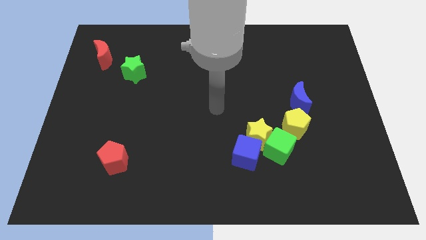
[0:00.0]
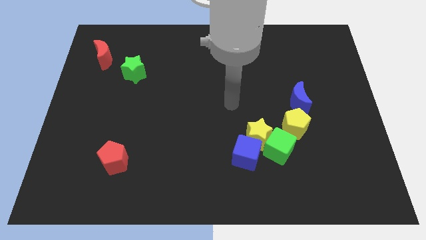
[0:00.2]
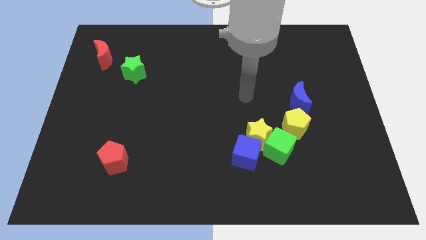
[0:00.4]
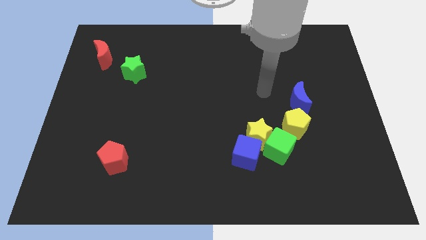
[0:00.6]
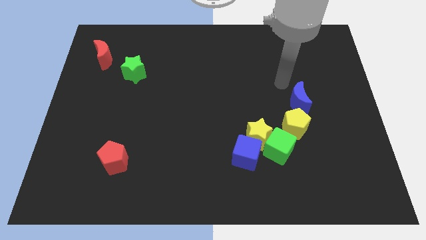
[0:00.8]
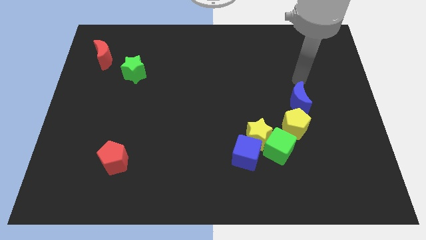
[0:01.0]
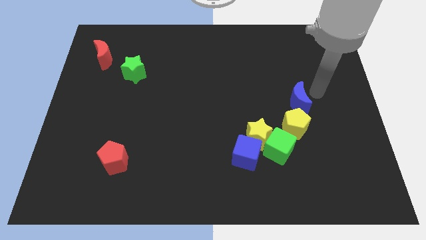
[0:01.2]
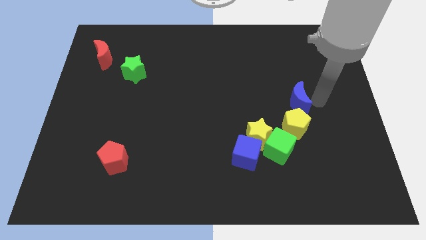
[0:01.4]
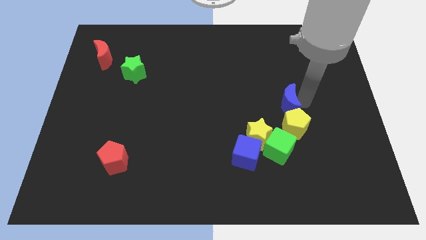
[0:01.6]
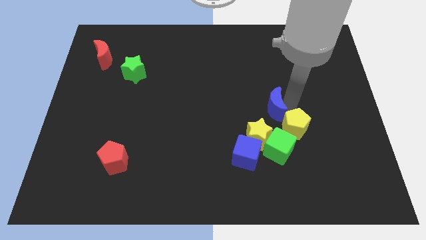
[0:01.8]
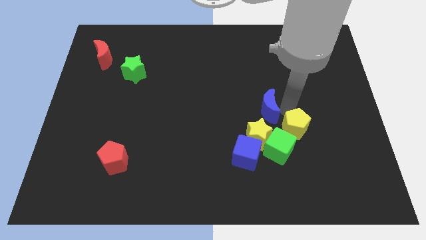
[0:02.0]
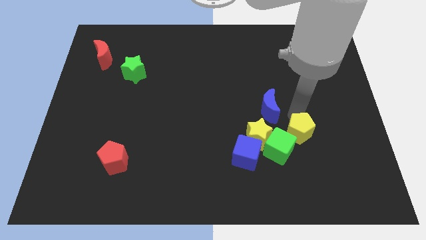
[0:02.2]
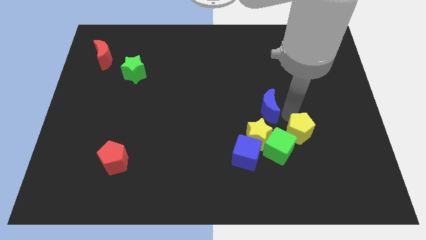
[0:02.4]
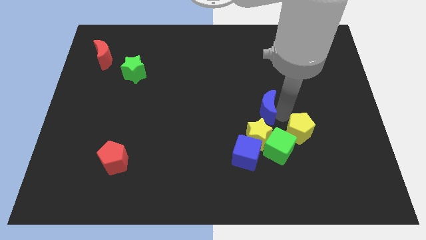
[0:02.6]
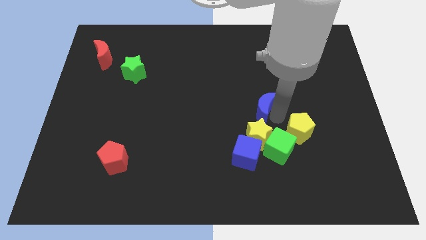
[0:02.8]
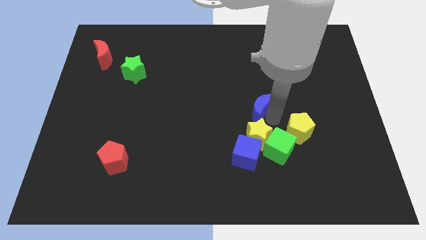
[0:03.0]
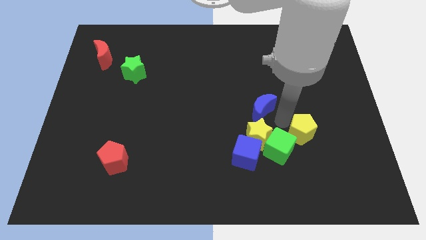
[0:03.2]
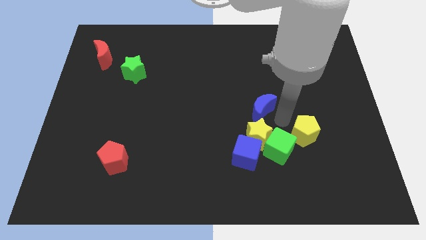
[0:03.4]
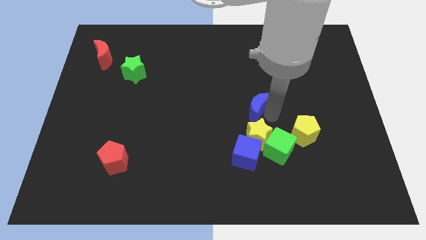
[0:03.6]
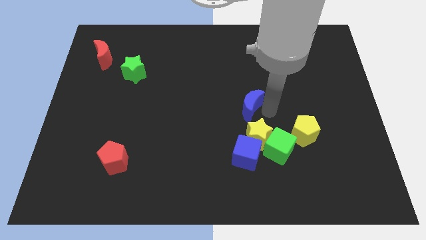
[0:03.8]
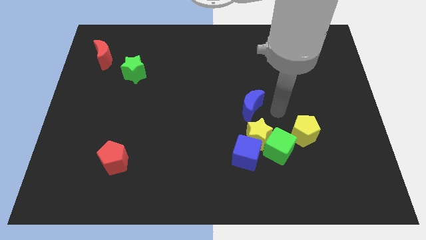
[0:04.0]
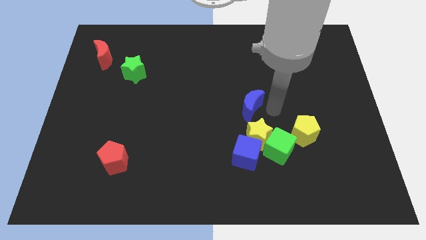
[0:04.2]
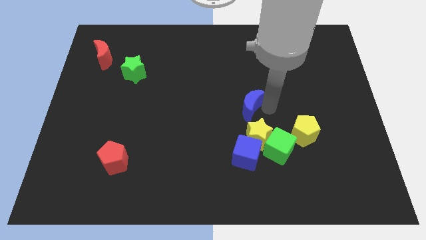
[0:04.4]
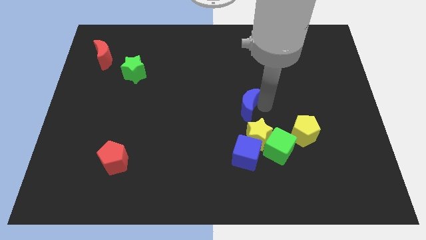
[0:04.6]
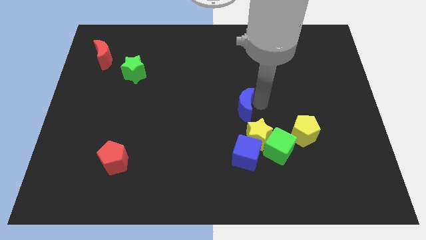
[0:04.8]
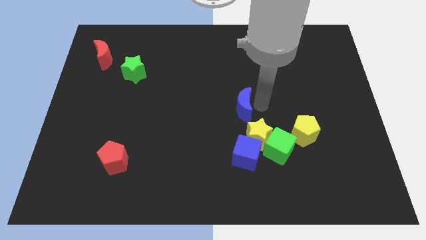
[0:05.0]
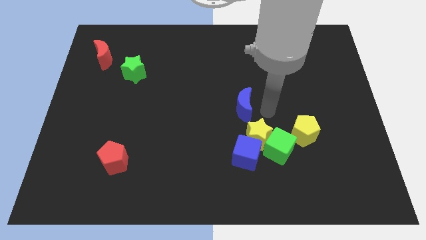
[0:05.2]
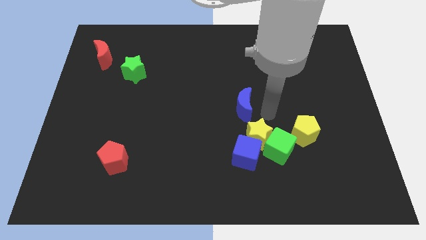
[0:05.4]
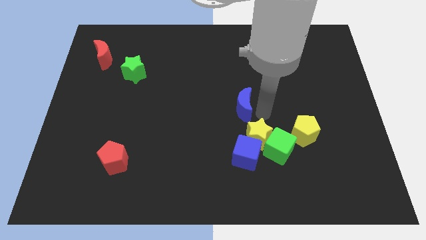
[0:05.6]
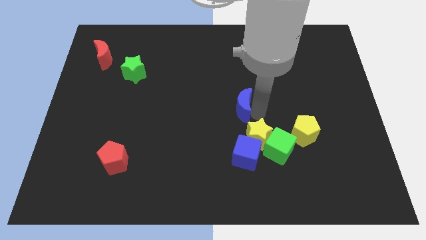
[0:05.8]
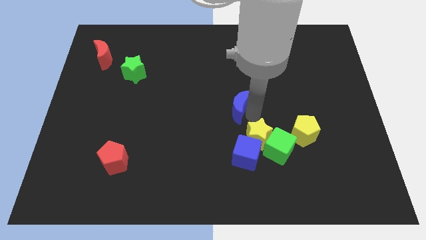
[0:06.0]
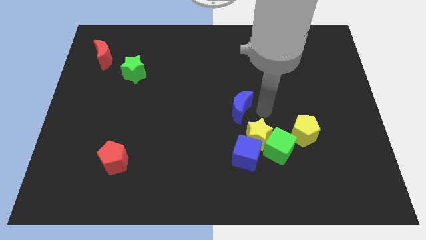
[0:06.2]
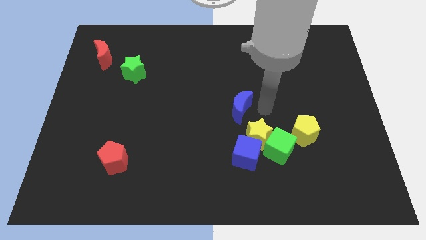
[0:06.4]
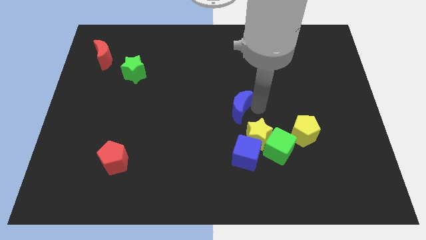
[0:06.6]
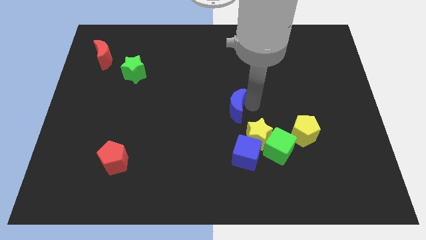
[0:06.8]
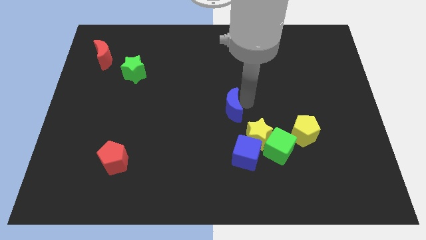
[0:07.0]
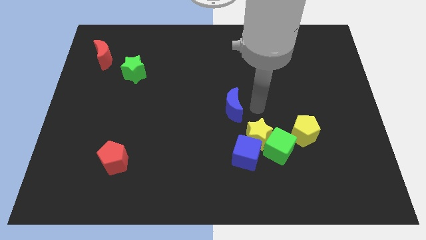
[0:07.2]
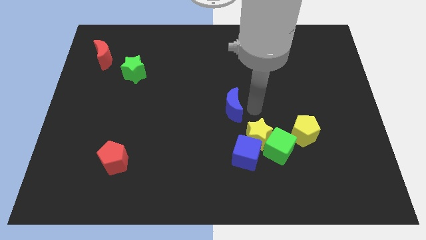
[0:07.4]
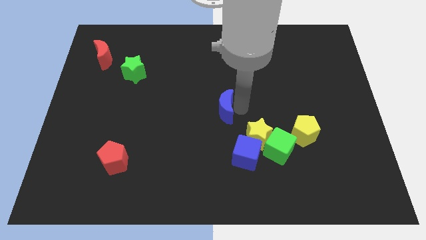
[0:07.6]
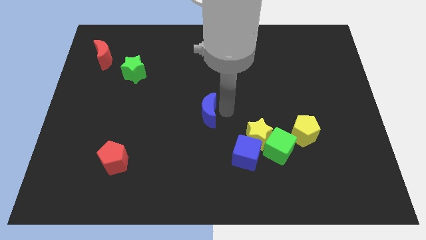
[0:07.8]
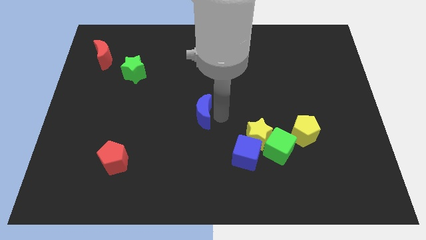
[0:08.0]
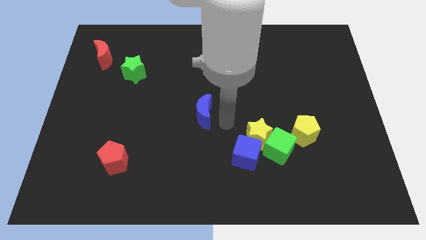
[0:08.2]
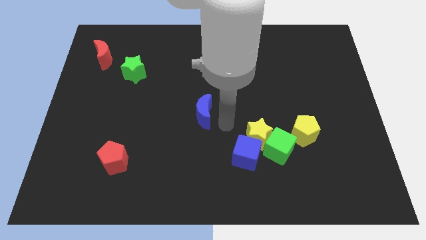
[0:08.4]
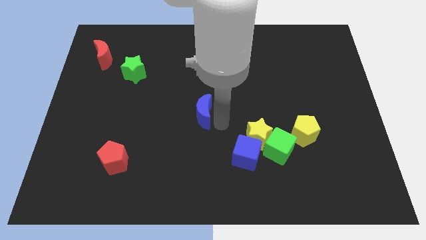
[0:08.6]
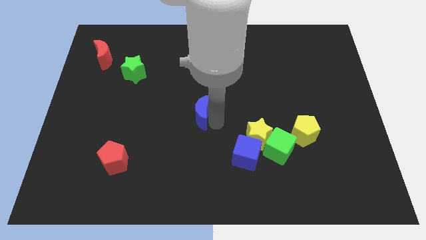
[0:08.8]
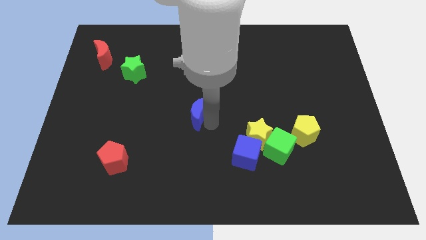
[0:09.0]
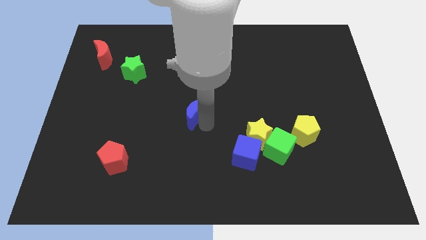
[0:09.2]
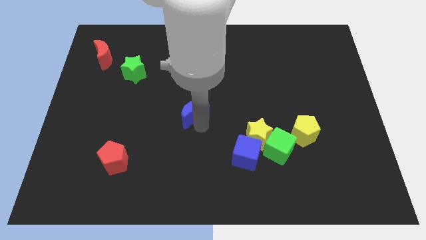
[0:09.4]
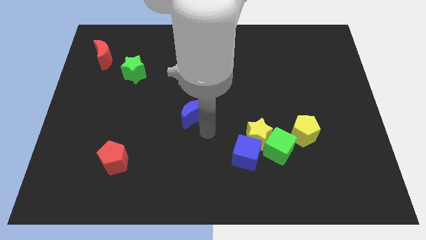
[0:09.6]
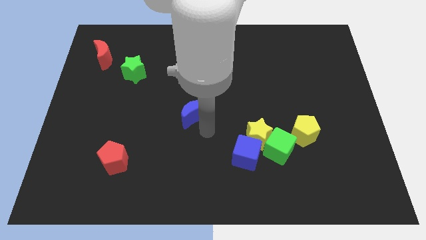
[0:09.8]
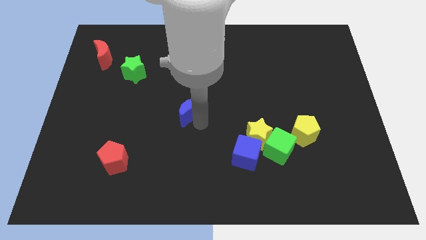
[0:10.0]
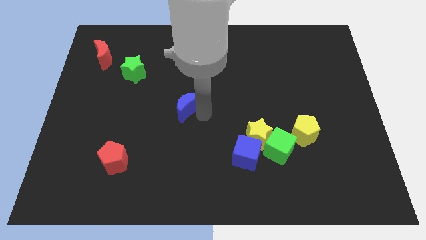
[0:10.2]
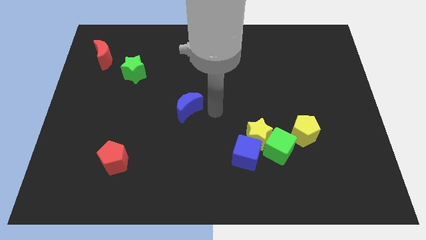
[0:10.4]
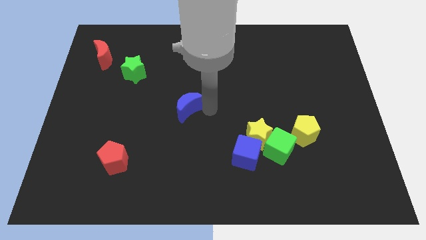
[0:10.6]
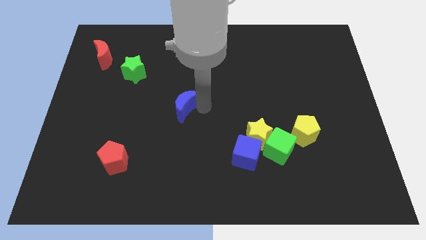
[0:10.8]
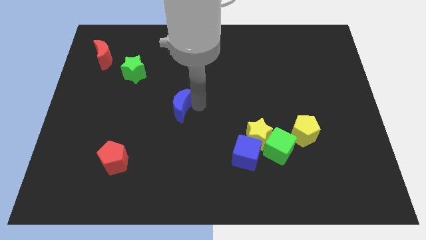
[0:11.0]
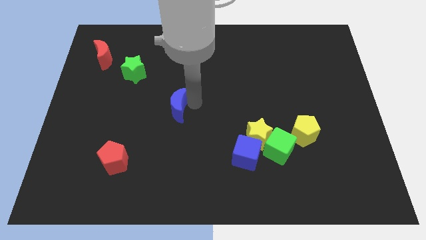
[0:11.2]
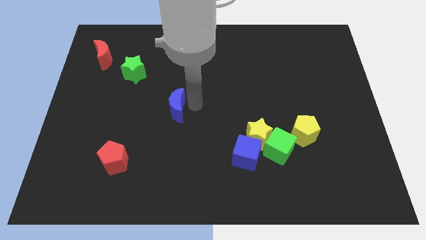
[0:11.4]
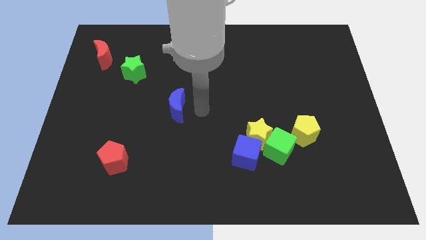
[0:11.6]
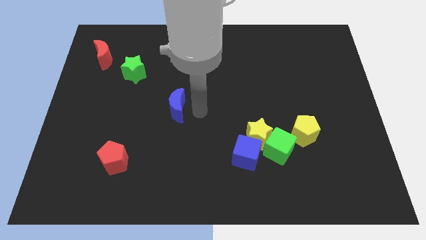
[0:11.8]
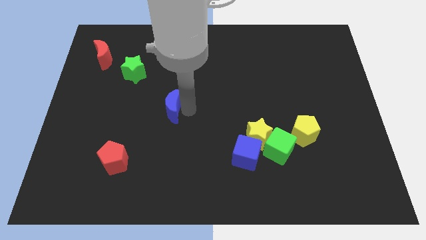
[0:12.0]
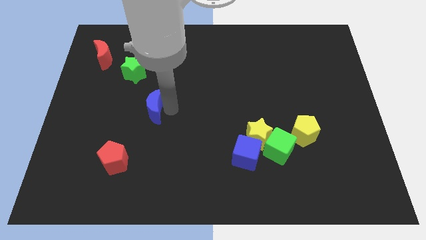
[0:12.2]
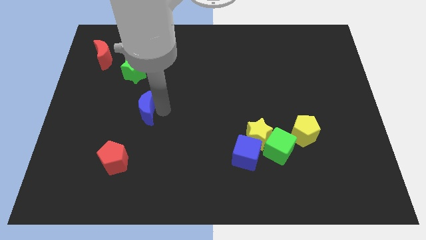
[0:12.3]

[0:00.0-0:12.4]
push the blue moon to the bottom of the green star

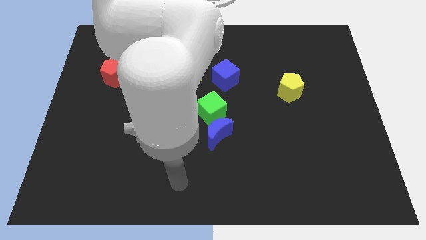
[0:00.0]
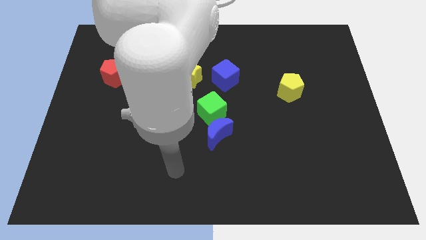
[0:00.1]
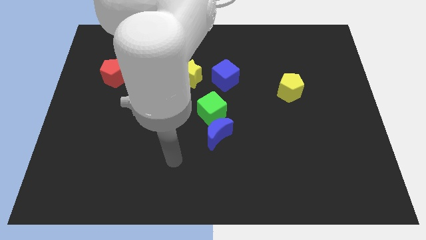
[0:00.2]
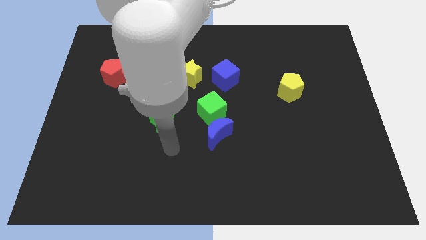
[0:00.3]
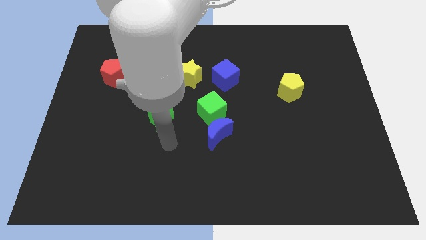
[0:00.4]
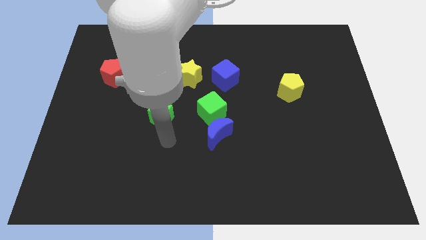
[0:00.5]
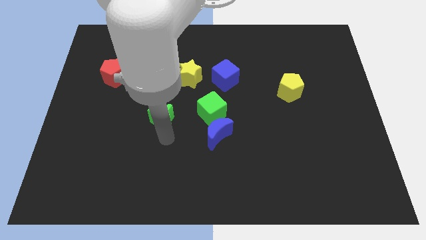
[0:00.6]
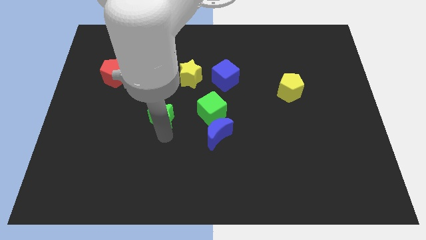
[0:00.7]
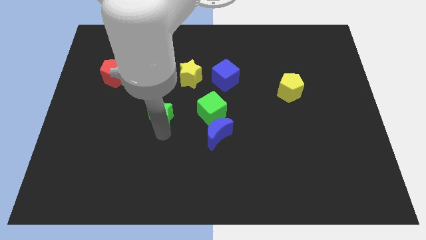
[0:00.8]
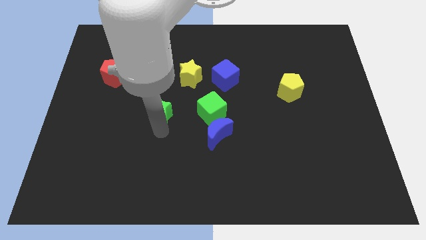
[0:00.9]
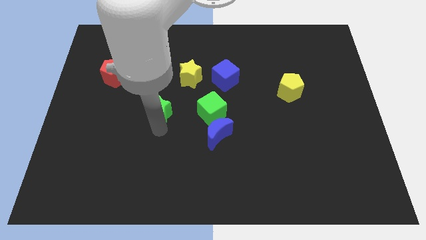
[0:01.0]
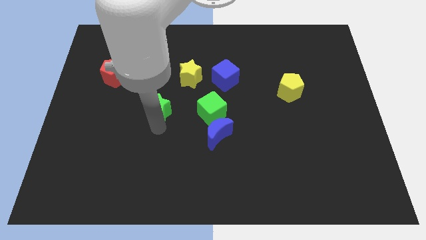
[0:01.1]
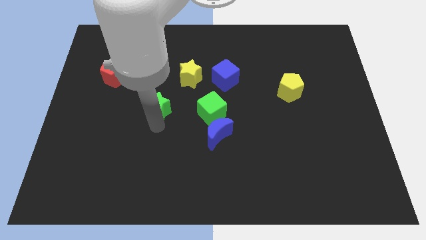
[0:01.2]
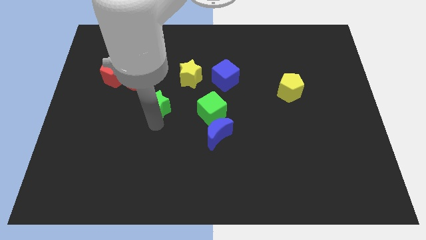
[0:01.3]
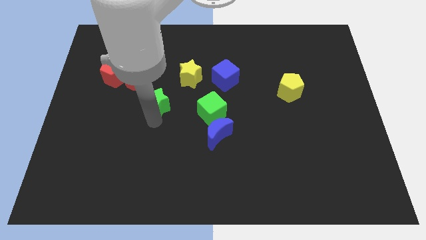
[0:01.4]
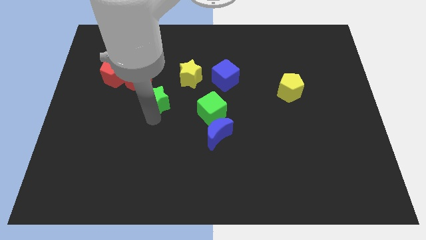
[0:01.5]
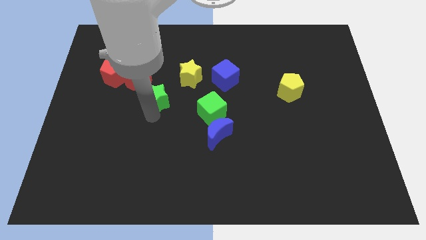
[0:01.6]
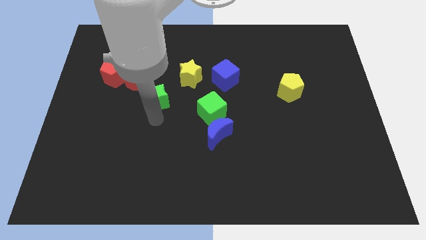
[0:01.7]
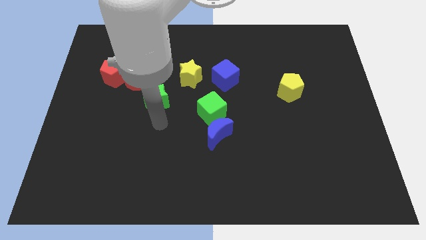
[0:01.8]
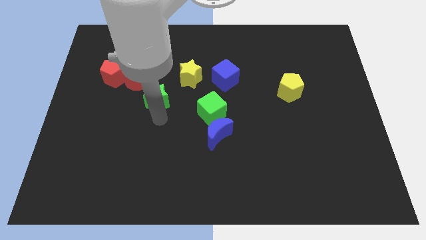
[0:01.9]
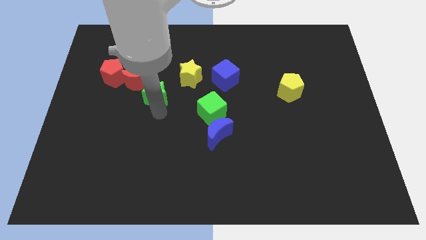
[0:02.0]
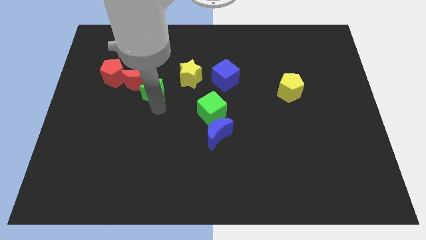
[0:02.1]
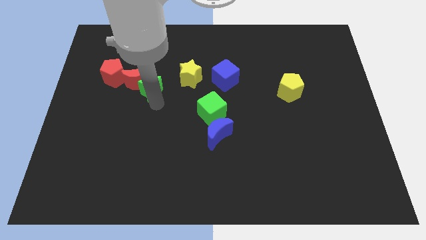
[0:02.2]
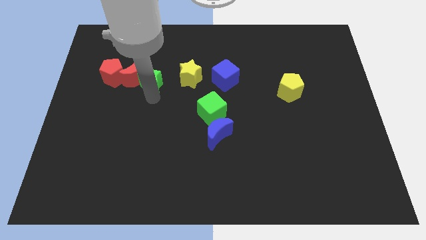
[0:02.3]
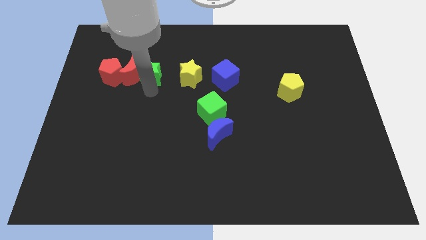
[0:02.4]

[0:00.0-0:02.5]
move the green star to the top right side of the red moon
